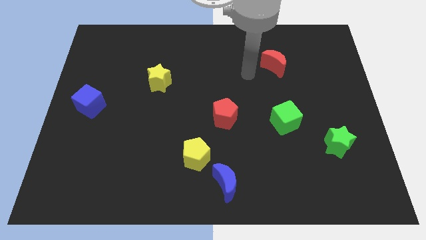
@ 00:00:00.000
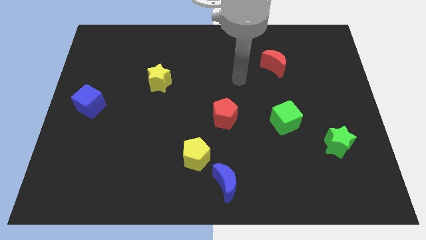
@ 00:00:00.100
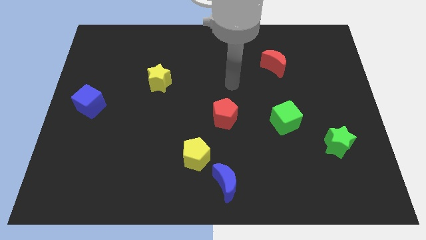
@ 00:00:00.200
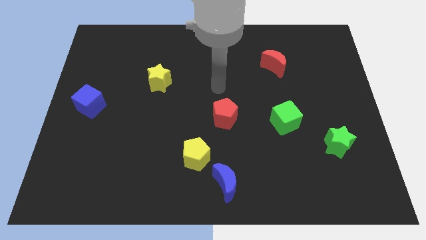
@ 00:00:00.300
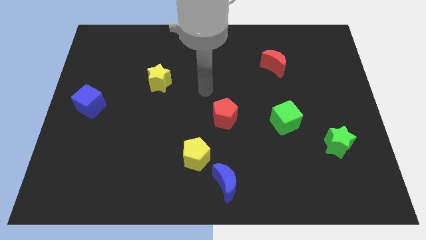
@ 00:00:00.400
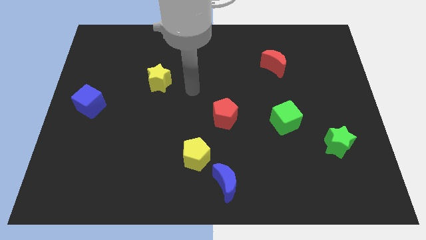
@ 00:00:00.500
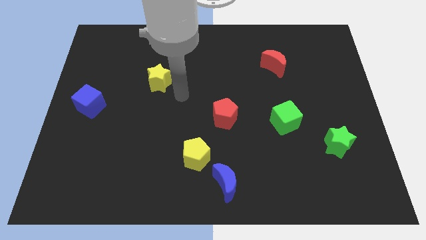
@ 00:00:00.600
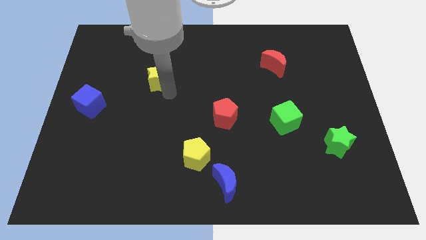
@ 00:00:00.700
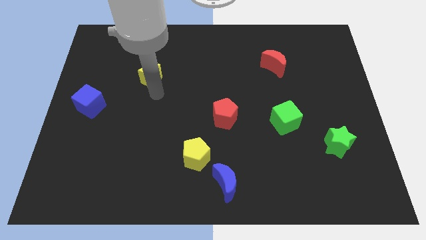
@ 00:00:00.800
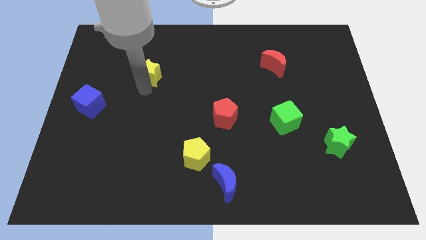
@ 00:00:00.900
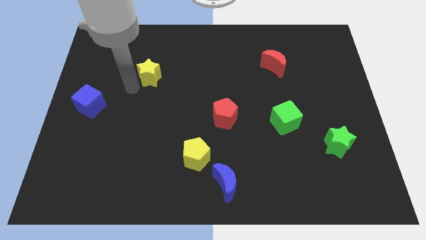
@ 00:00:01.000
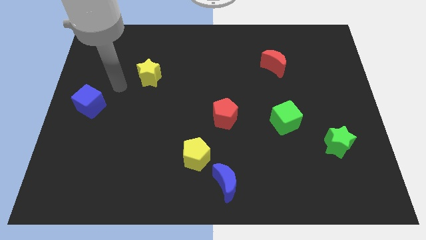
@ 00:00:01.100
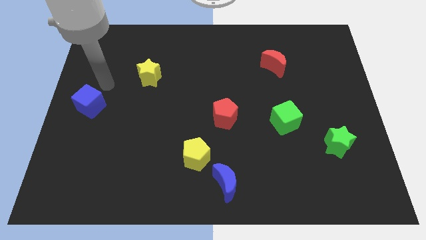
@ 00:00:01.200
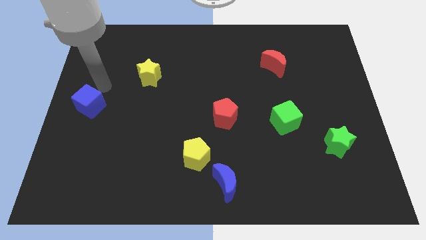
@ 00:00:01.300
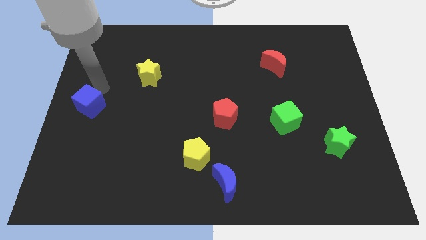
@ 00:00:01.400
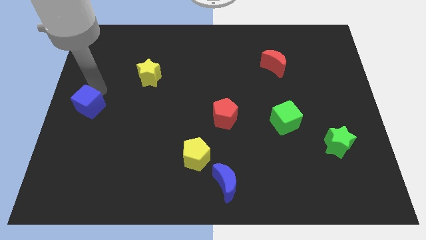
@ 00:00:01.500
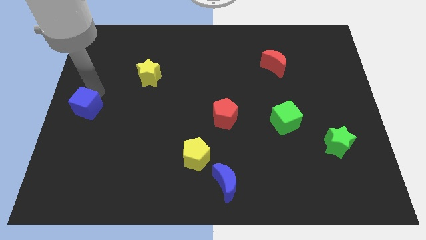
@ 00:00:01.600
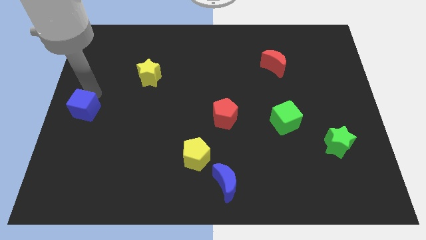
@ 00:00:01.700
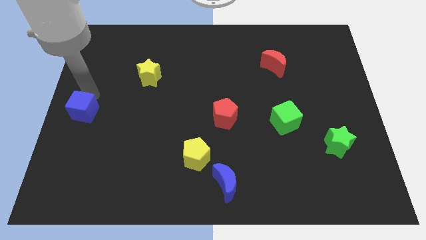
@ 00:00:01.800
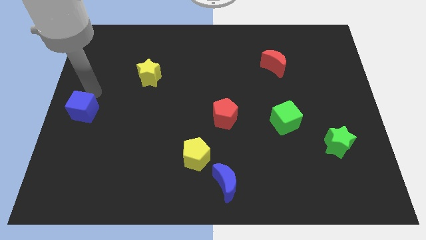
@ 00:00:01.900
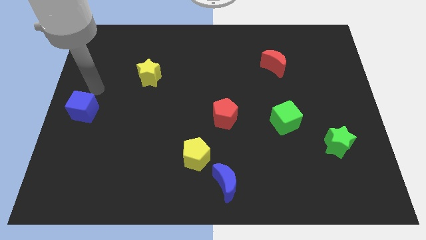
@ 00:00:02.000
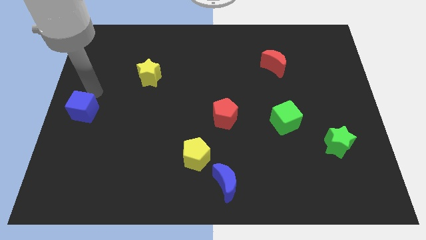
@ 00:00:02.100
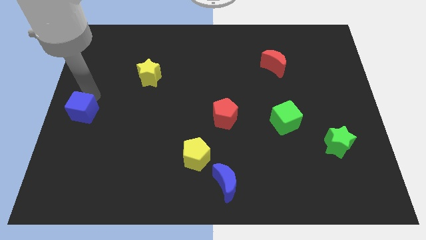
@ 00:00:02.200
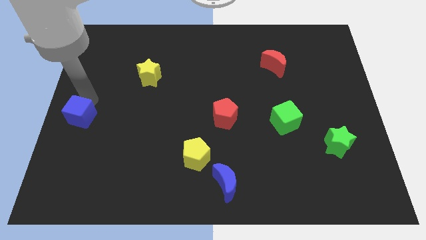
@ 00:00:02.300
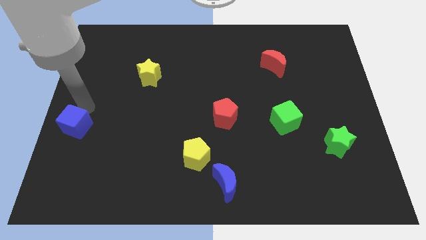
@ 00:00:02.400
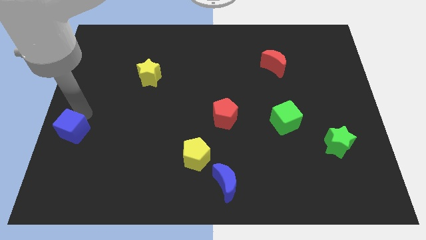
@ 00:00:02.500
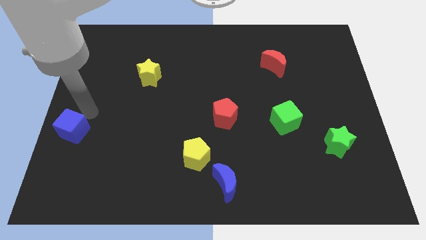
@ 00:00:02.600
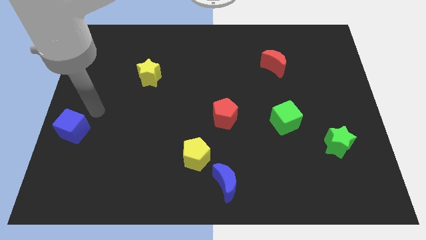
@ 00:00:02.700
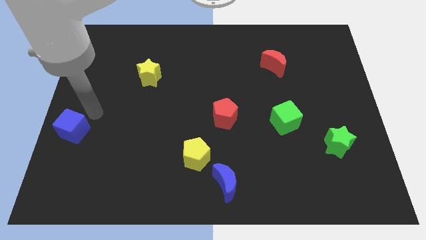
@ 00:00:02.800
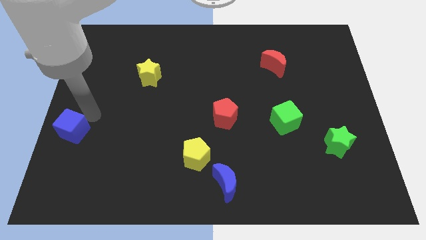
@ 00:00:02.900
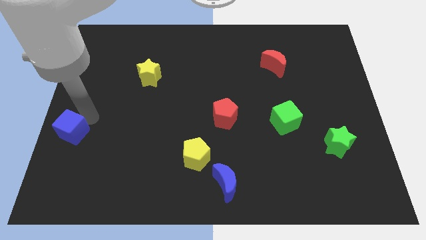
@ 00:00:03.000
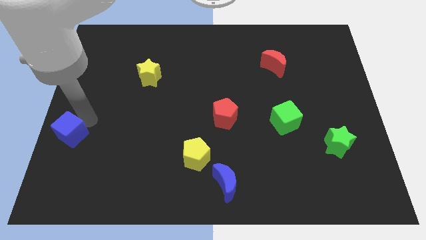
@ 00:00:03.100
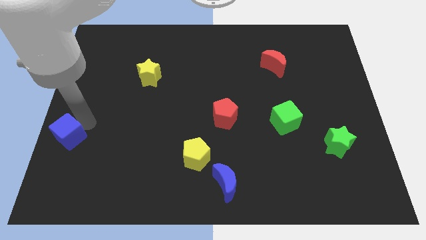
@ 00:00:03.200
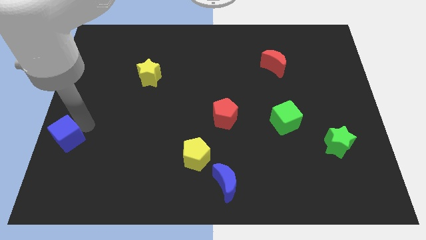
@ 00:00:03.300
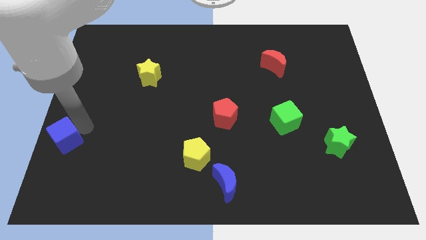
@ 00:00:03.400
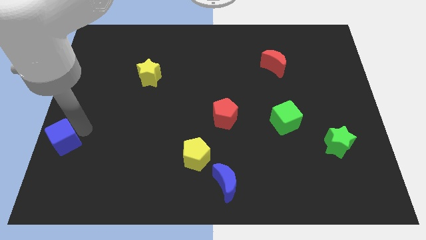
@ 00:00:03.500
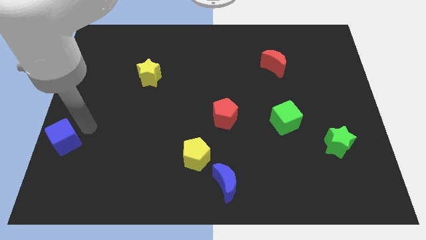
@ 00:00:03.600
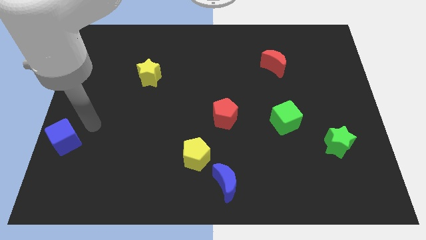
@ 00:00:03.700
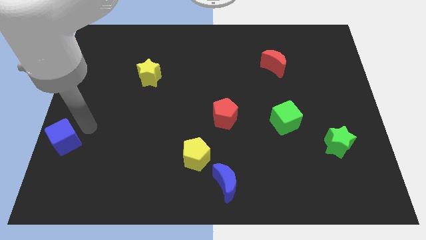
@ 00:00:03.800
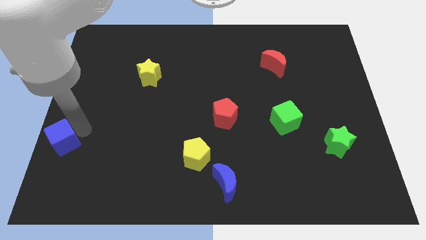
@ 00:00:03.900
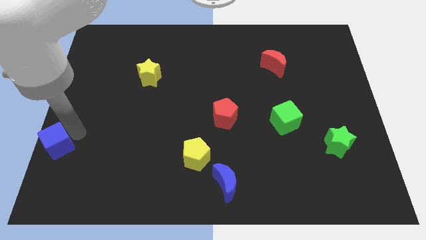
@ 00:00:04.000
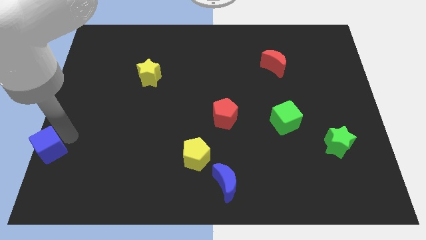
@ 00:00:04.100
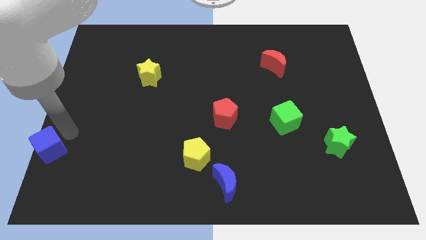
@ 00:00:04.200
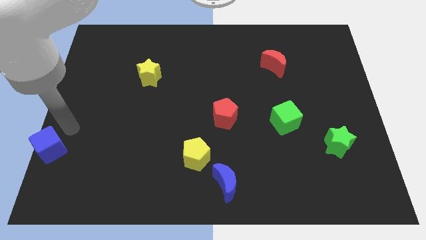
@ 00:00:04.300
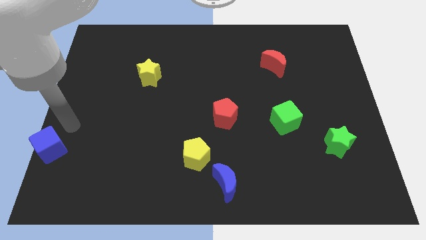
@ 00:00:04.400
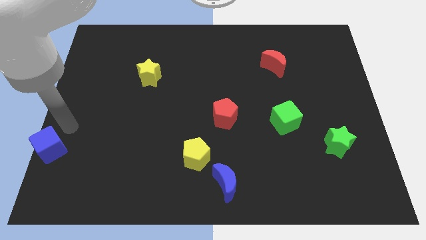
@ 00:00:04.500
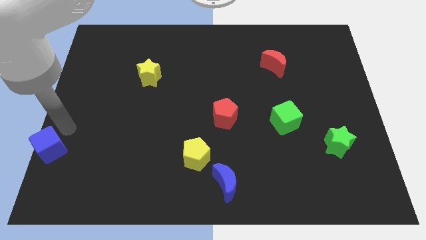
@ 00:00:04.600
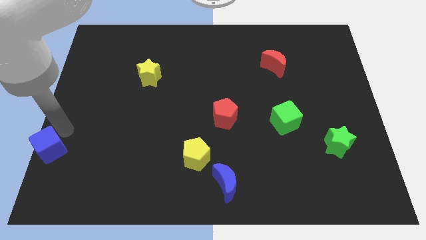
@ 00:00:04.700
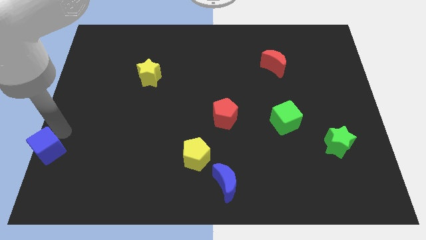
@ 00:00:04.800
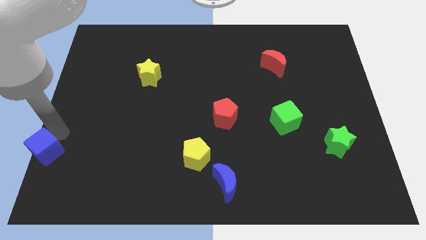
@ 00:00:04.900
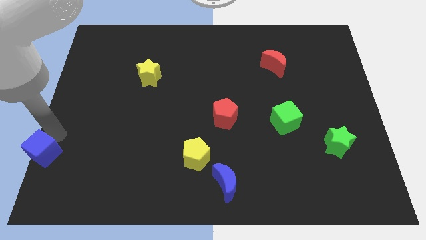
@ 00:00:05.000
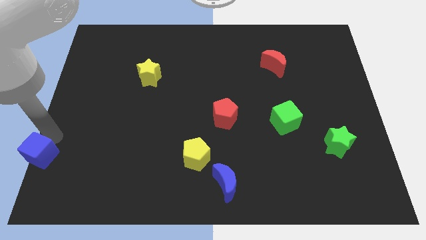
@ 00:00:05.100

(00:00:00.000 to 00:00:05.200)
put the blue cube to the bottom left corner

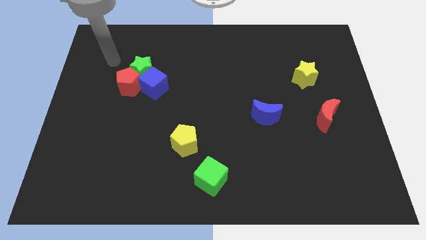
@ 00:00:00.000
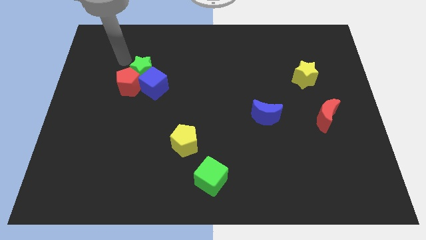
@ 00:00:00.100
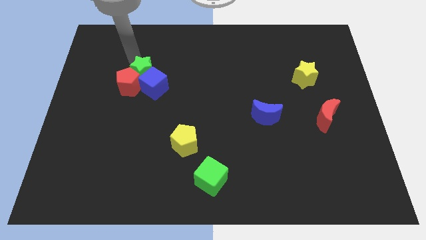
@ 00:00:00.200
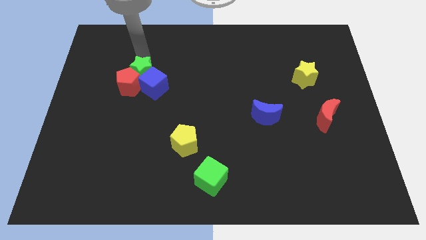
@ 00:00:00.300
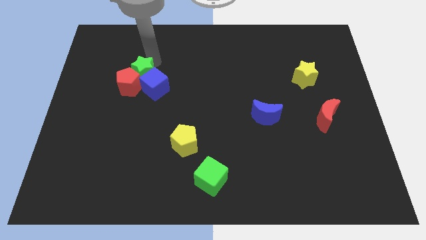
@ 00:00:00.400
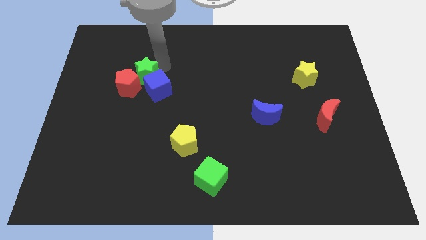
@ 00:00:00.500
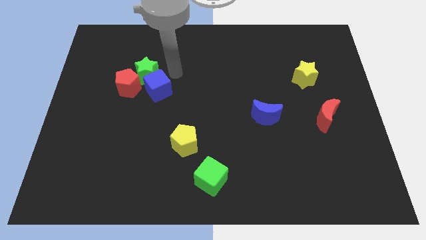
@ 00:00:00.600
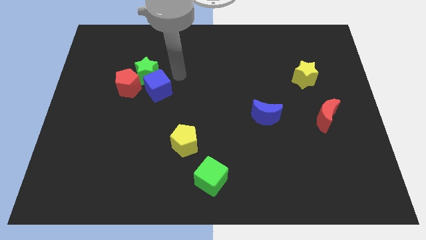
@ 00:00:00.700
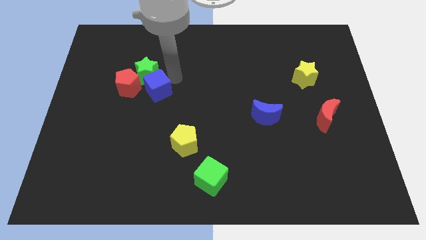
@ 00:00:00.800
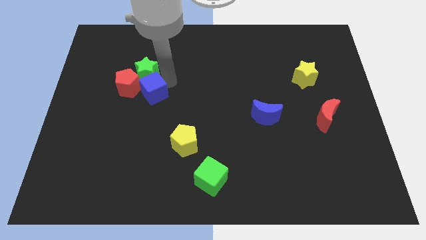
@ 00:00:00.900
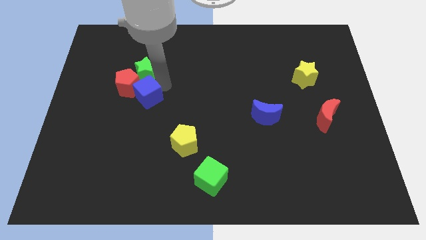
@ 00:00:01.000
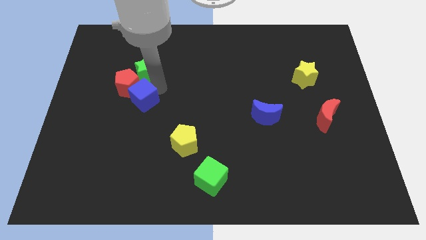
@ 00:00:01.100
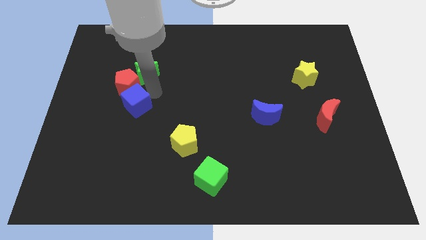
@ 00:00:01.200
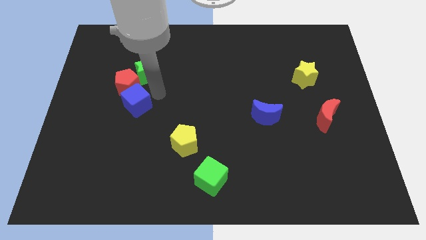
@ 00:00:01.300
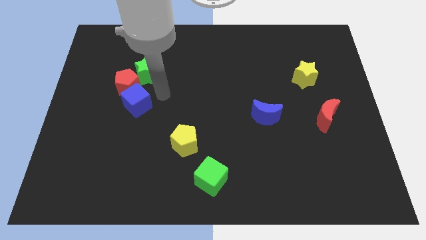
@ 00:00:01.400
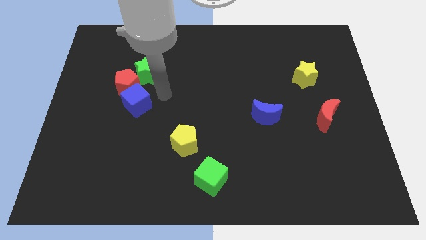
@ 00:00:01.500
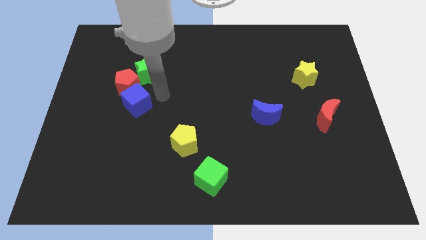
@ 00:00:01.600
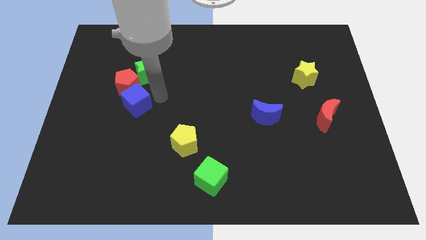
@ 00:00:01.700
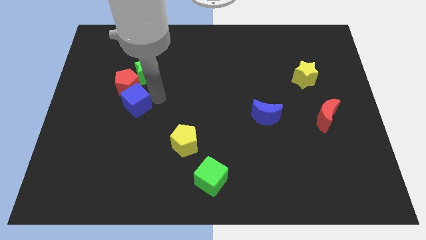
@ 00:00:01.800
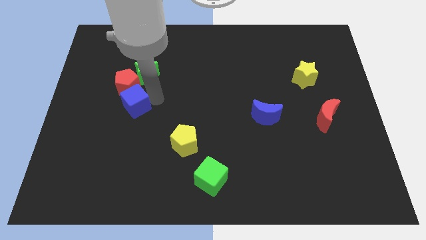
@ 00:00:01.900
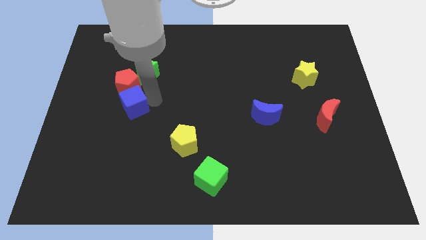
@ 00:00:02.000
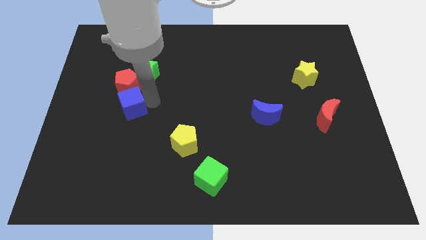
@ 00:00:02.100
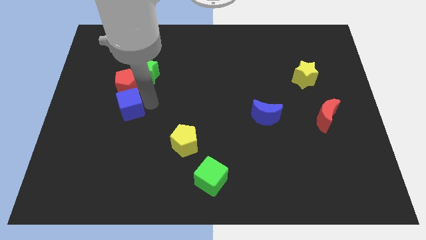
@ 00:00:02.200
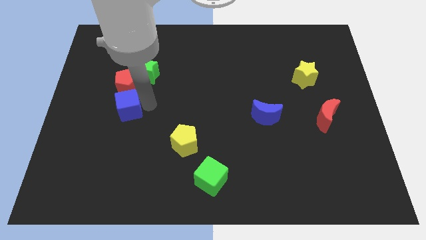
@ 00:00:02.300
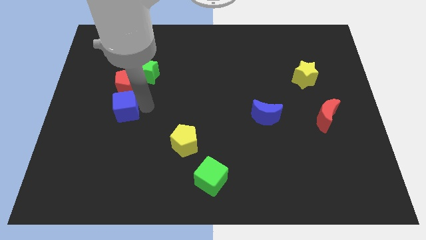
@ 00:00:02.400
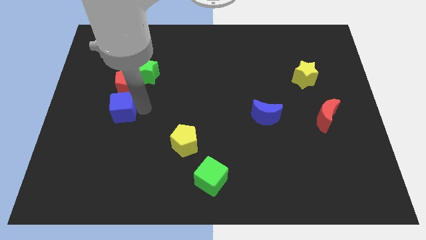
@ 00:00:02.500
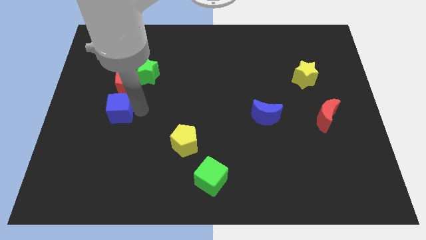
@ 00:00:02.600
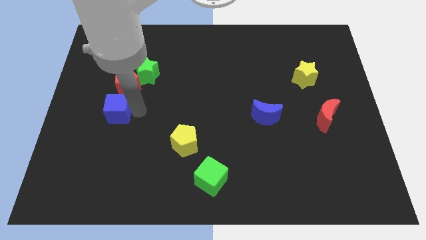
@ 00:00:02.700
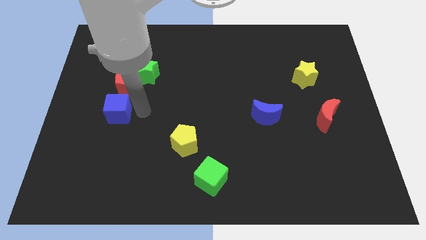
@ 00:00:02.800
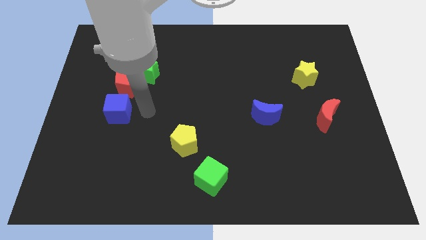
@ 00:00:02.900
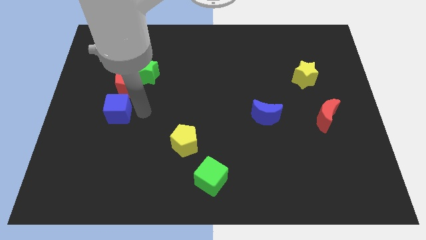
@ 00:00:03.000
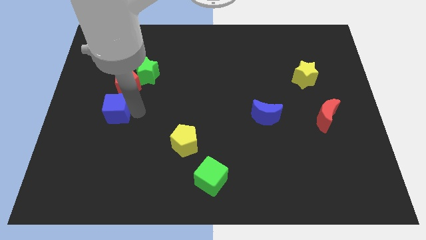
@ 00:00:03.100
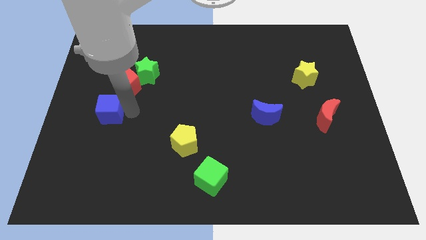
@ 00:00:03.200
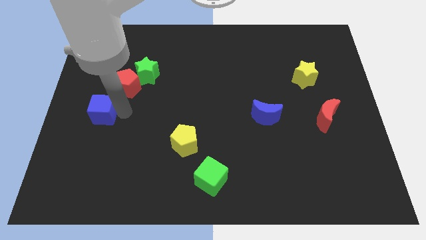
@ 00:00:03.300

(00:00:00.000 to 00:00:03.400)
push the blue cube to the left side of the board
